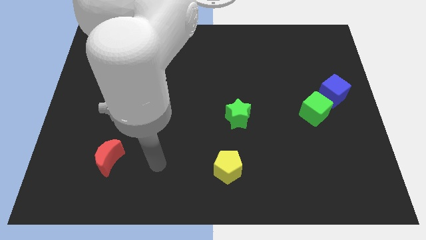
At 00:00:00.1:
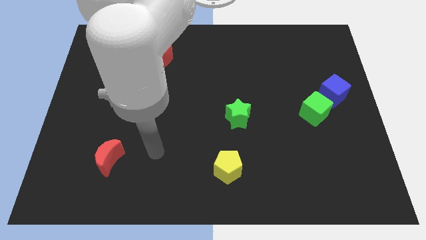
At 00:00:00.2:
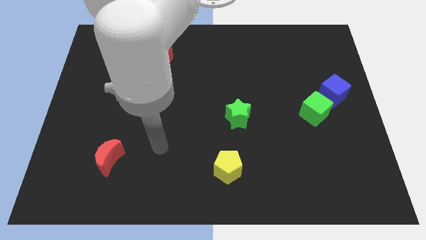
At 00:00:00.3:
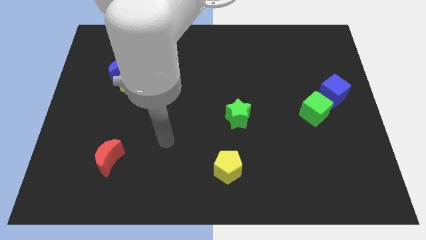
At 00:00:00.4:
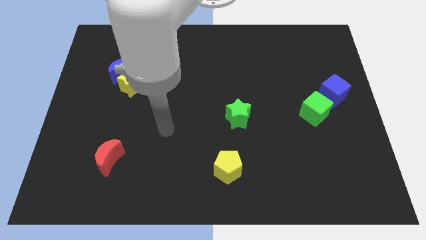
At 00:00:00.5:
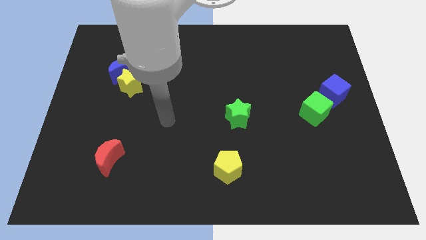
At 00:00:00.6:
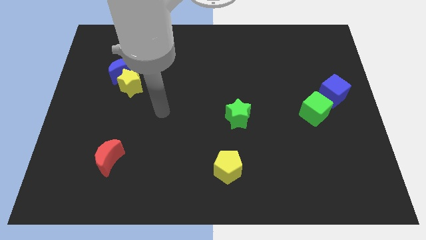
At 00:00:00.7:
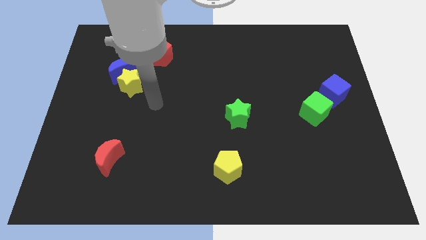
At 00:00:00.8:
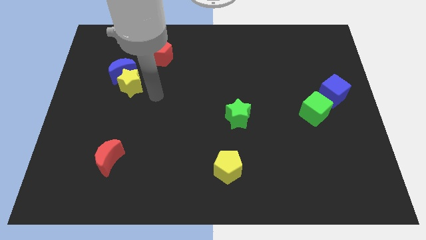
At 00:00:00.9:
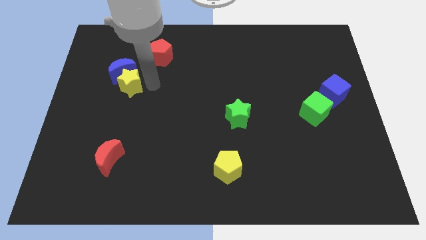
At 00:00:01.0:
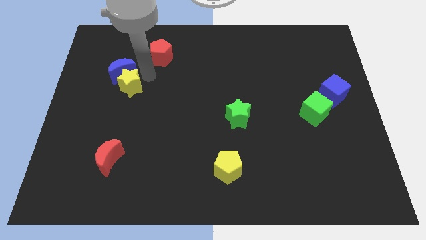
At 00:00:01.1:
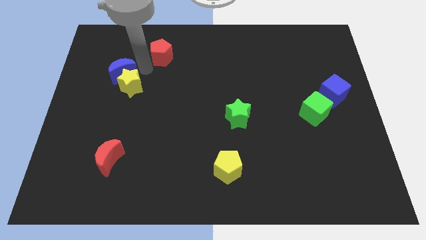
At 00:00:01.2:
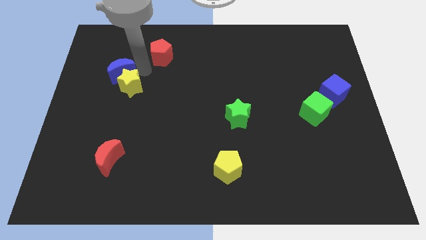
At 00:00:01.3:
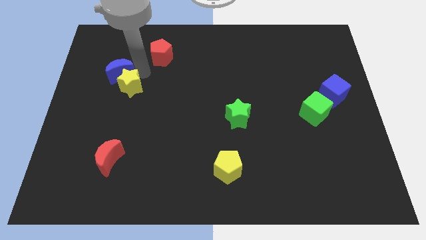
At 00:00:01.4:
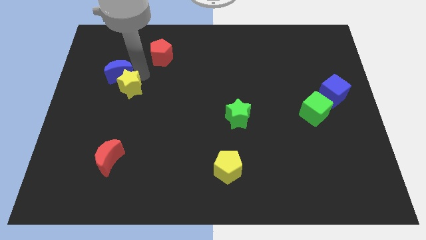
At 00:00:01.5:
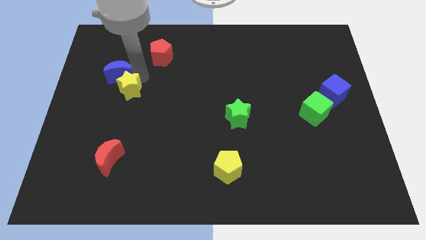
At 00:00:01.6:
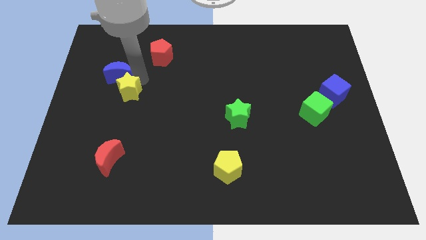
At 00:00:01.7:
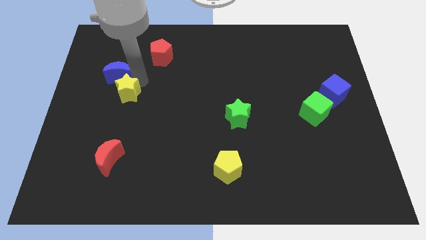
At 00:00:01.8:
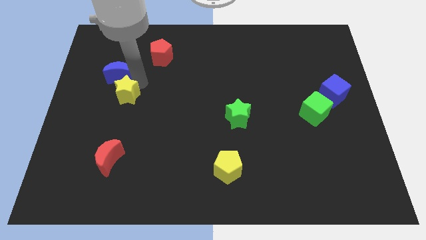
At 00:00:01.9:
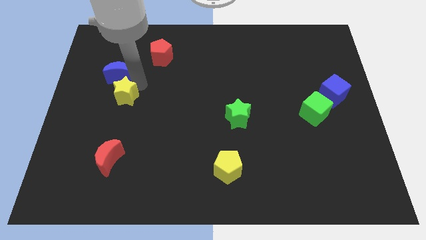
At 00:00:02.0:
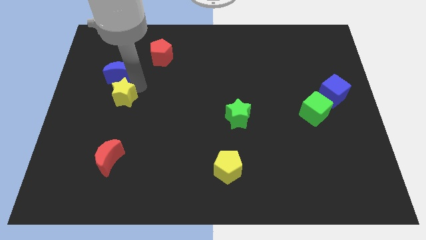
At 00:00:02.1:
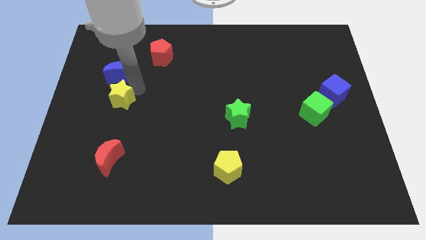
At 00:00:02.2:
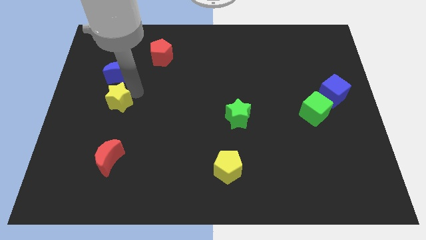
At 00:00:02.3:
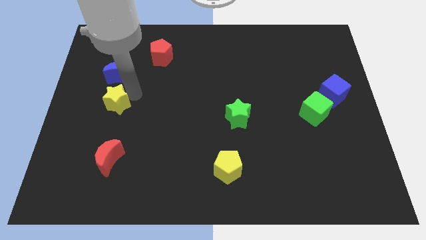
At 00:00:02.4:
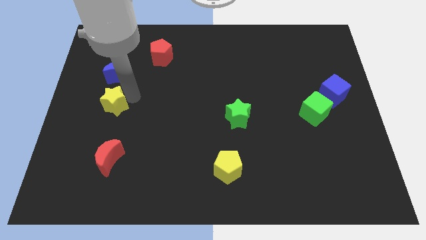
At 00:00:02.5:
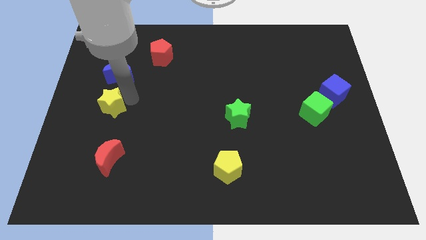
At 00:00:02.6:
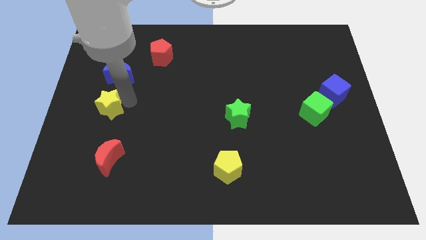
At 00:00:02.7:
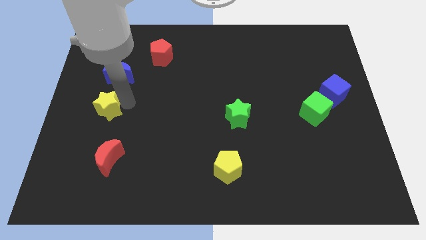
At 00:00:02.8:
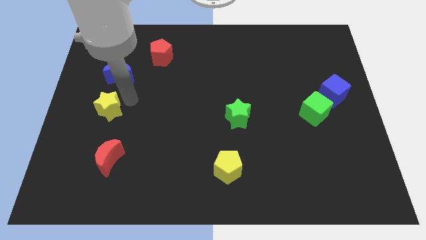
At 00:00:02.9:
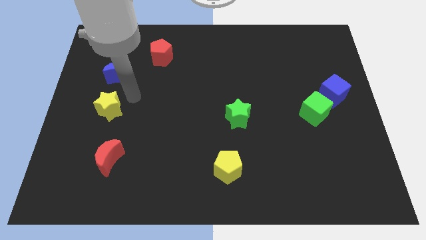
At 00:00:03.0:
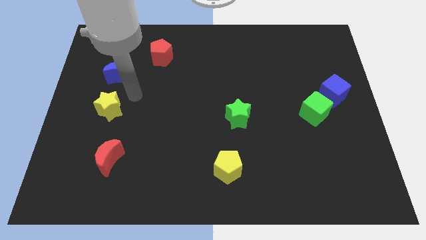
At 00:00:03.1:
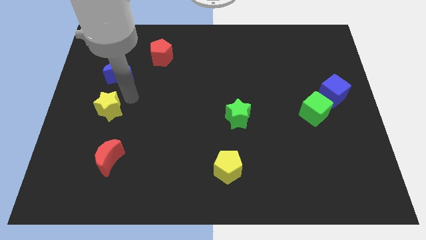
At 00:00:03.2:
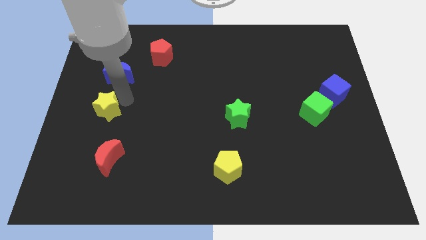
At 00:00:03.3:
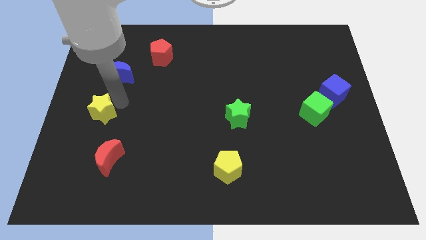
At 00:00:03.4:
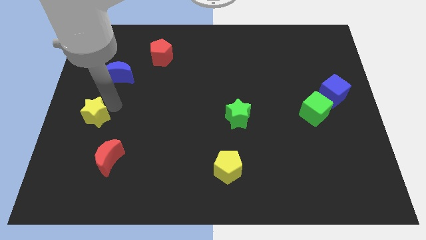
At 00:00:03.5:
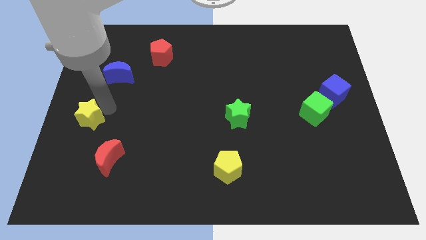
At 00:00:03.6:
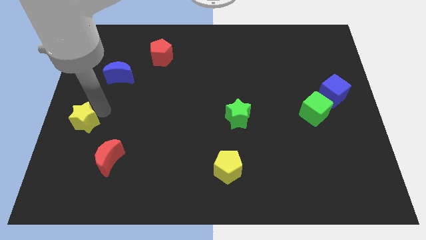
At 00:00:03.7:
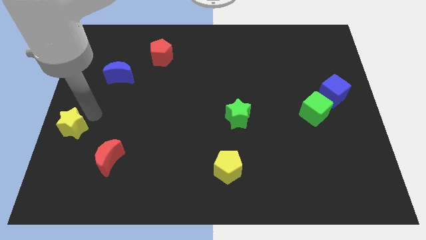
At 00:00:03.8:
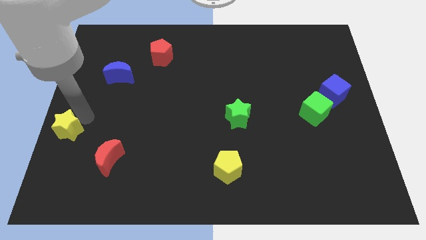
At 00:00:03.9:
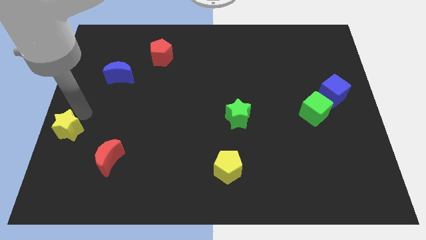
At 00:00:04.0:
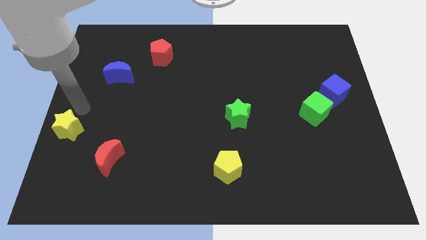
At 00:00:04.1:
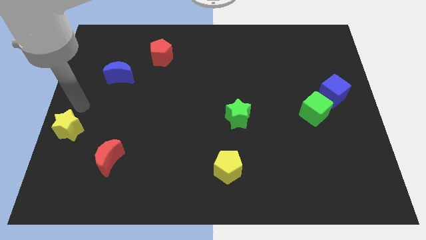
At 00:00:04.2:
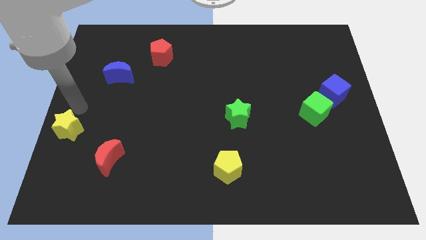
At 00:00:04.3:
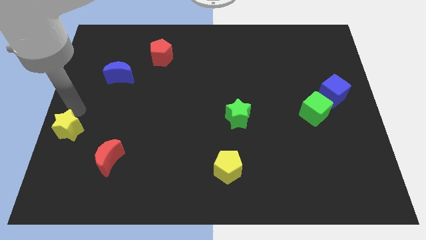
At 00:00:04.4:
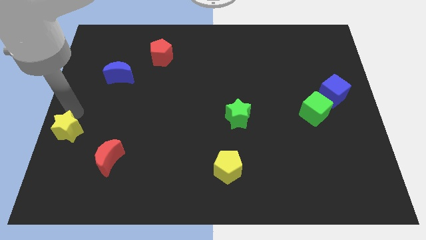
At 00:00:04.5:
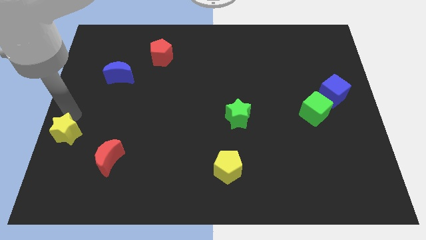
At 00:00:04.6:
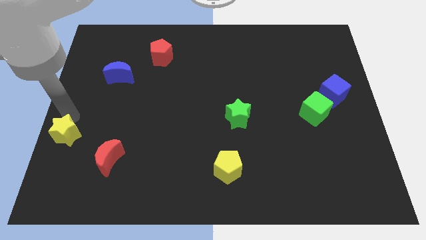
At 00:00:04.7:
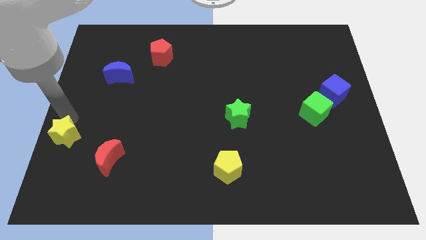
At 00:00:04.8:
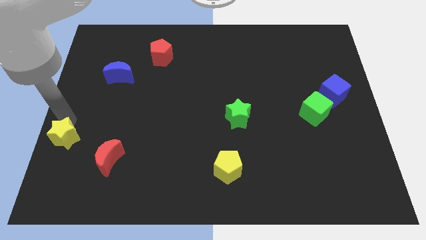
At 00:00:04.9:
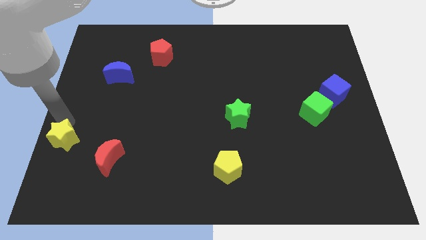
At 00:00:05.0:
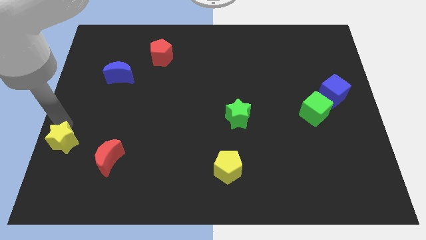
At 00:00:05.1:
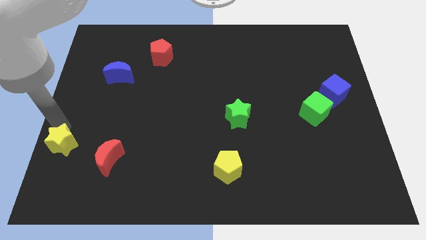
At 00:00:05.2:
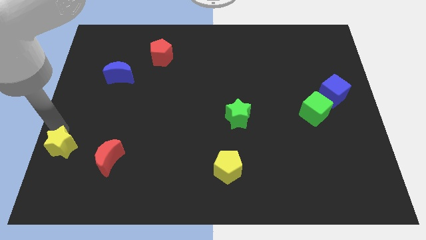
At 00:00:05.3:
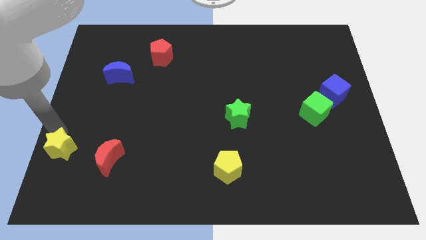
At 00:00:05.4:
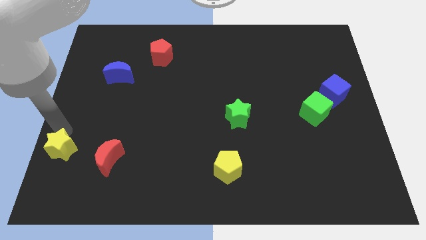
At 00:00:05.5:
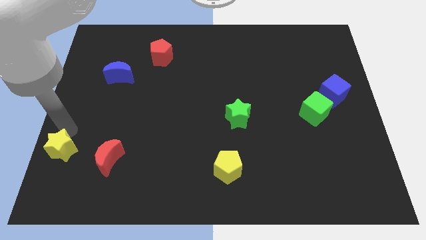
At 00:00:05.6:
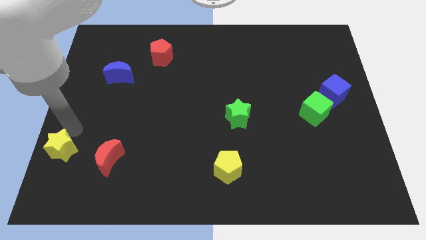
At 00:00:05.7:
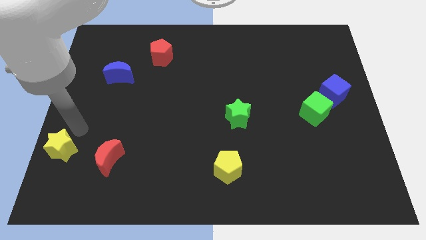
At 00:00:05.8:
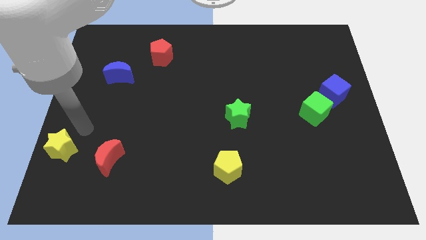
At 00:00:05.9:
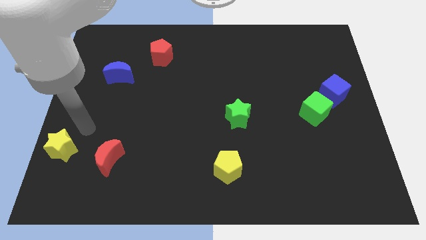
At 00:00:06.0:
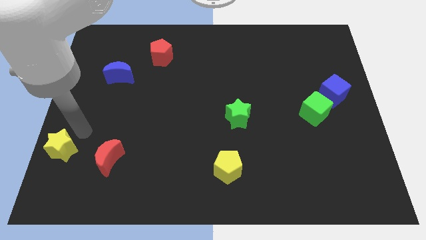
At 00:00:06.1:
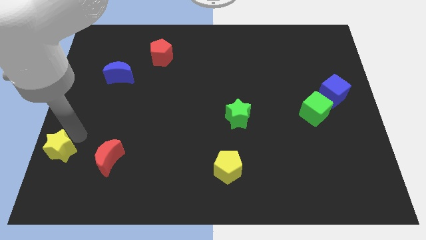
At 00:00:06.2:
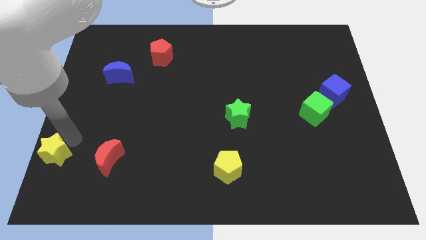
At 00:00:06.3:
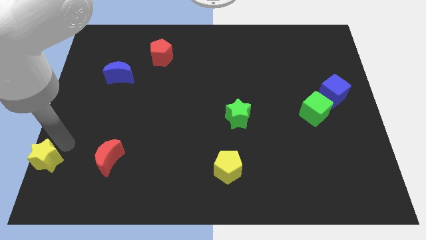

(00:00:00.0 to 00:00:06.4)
push the yellow star to the lower left corner
